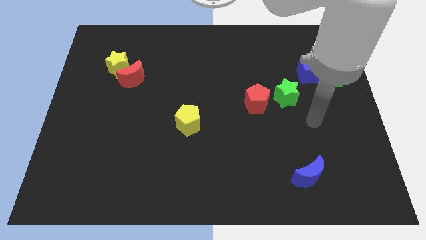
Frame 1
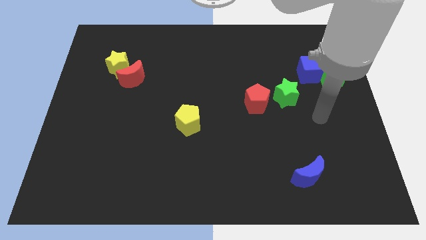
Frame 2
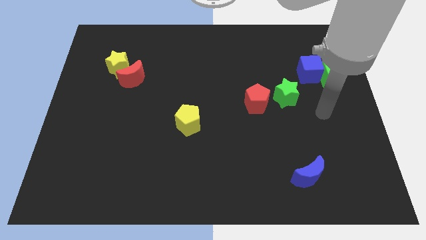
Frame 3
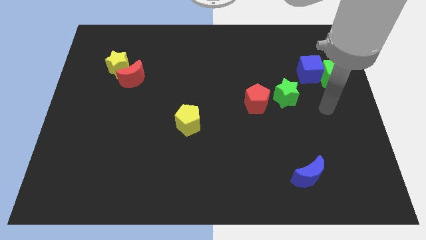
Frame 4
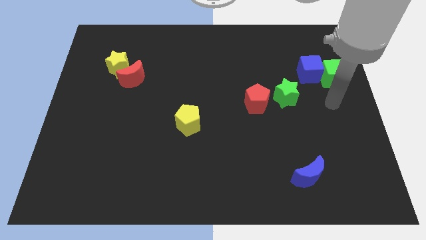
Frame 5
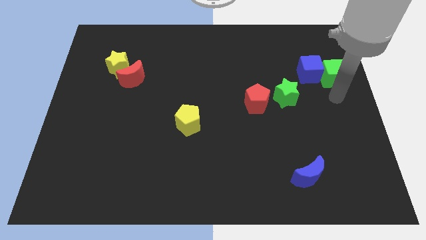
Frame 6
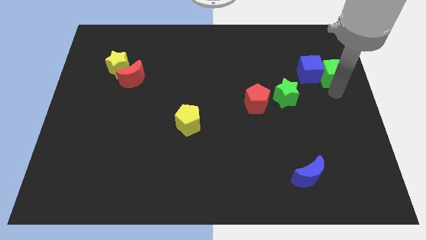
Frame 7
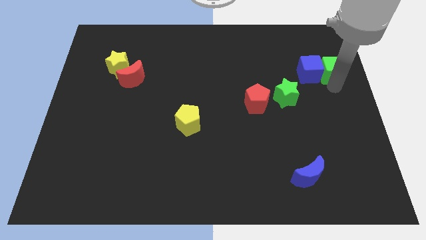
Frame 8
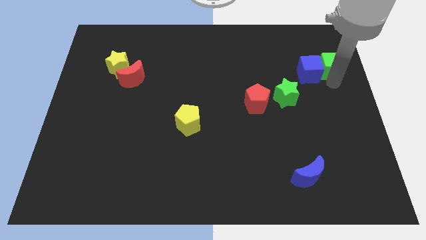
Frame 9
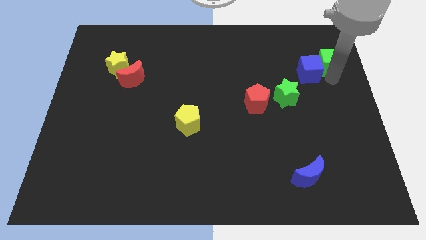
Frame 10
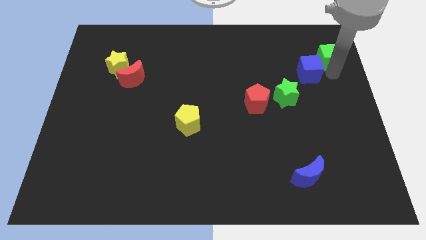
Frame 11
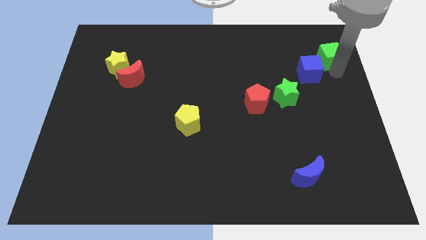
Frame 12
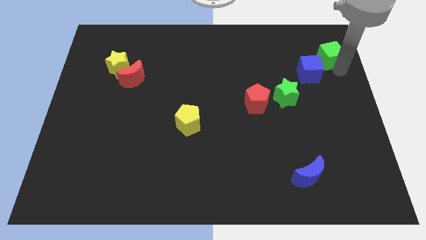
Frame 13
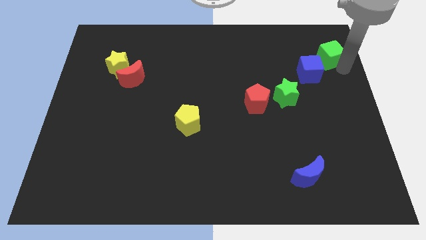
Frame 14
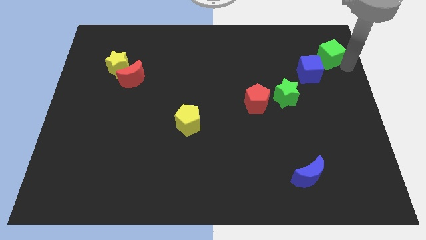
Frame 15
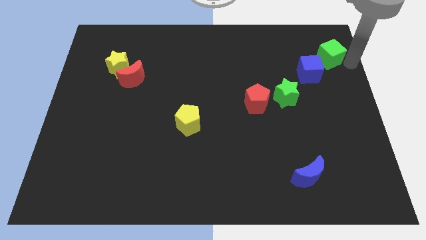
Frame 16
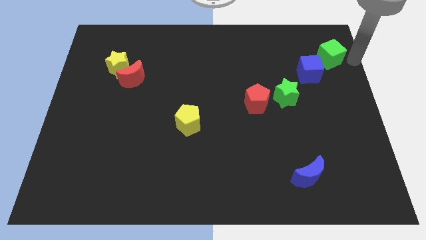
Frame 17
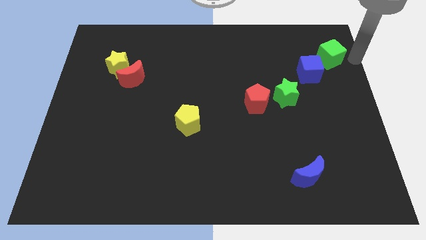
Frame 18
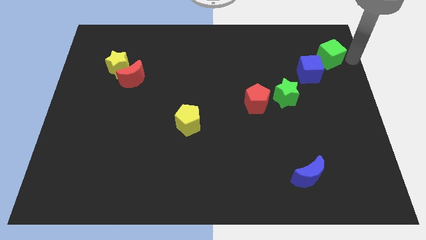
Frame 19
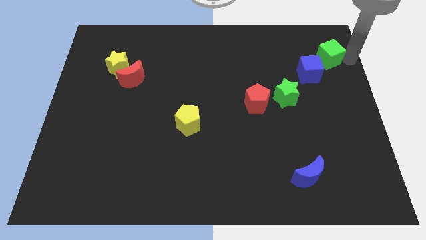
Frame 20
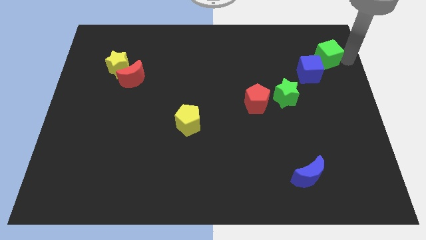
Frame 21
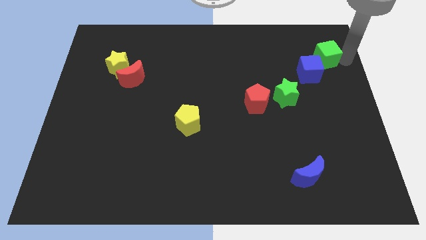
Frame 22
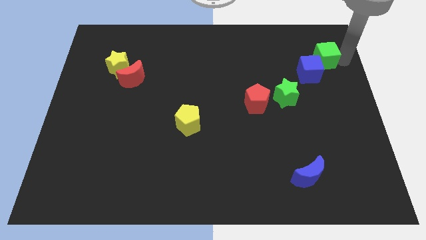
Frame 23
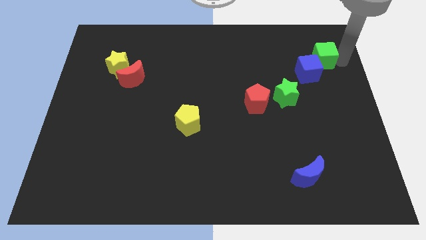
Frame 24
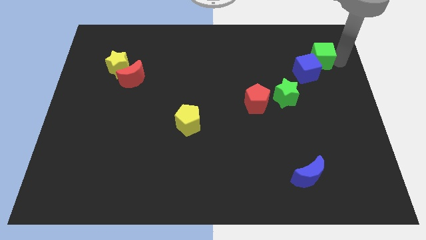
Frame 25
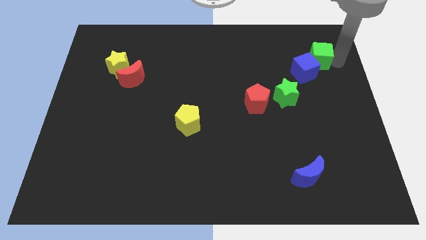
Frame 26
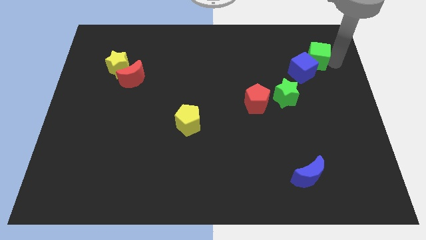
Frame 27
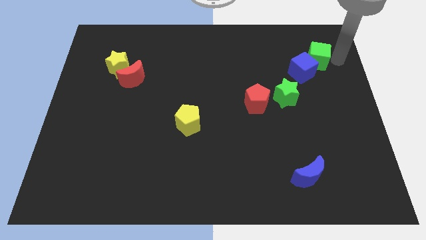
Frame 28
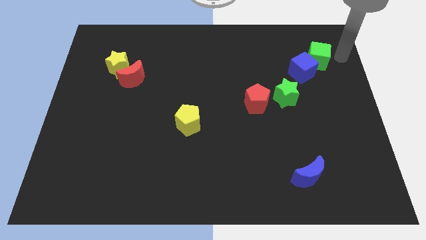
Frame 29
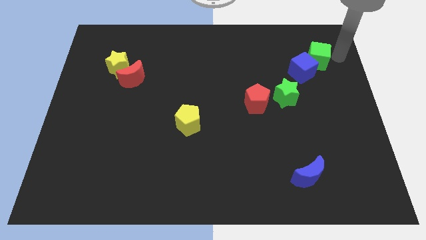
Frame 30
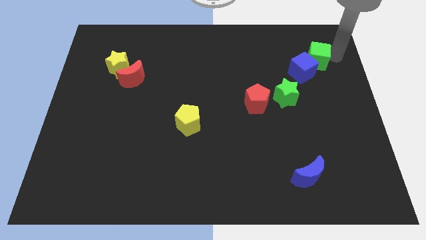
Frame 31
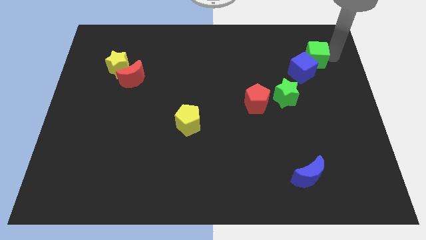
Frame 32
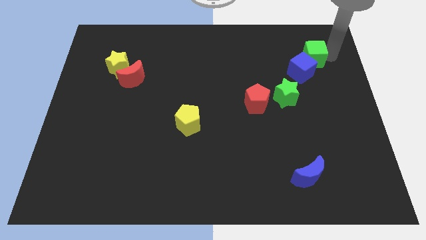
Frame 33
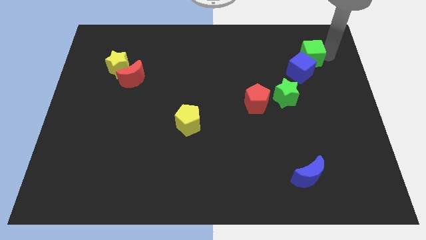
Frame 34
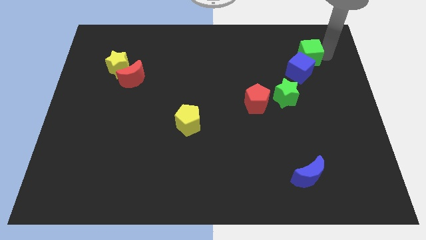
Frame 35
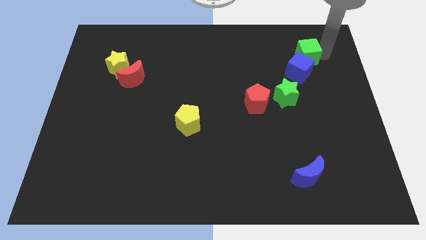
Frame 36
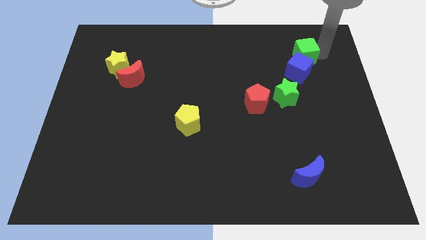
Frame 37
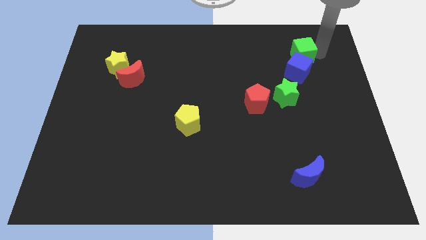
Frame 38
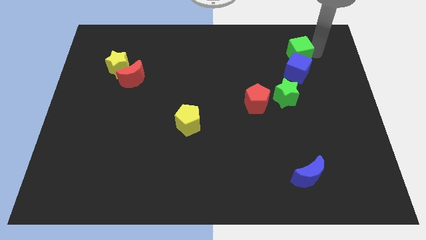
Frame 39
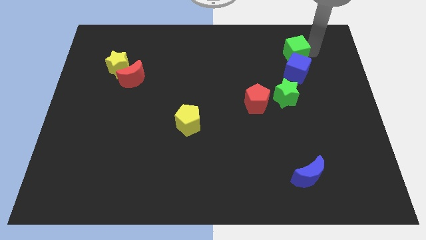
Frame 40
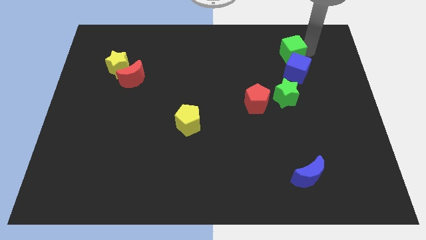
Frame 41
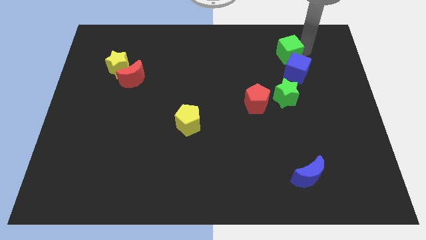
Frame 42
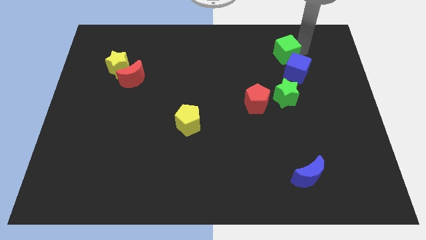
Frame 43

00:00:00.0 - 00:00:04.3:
push the green cube slightly to the left

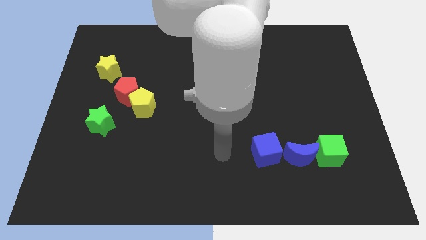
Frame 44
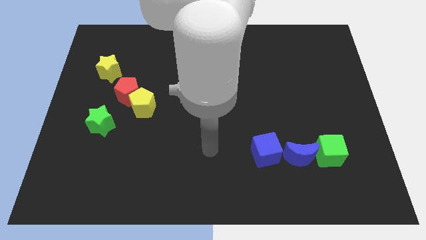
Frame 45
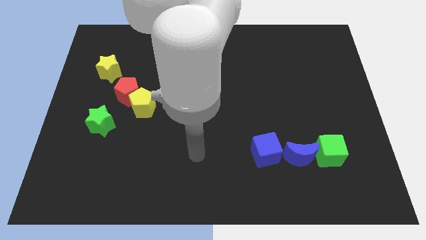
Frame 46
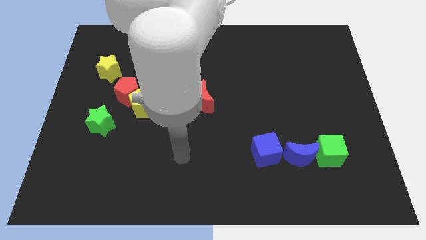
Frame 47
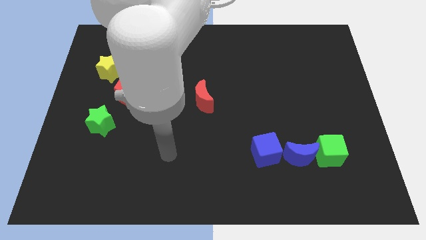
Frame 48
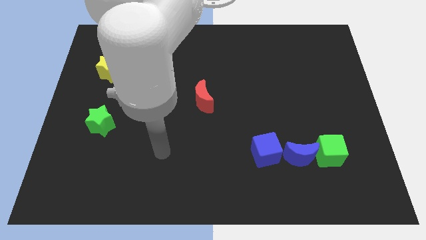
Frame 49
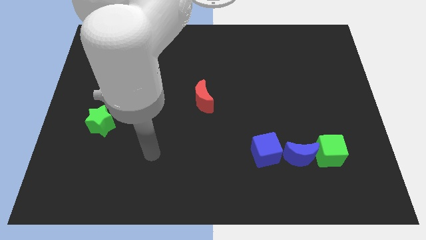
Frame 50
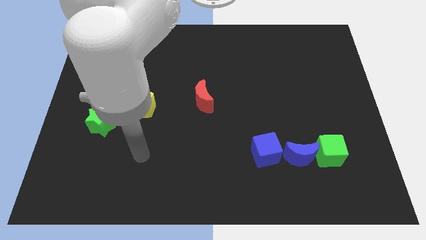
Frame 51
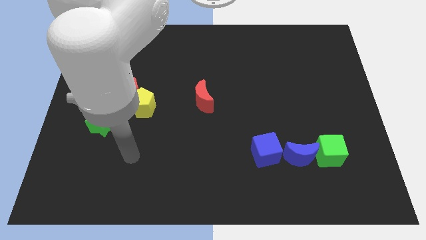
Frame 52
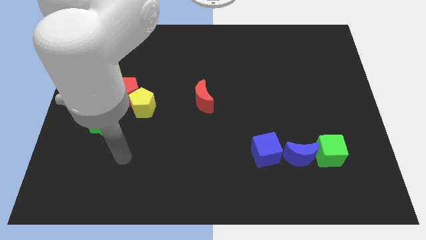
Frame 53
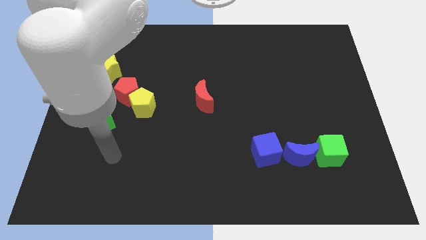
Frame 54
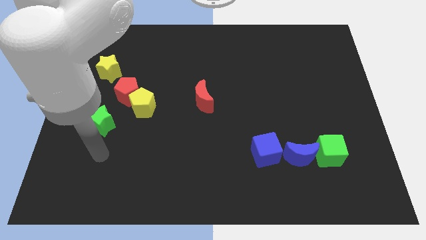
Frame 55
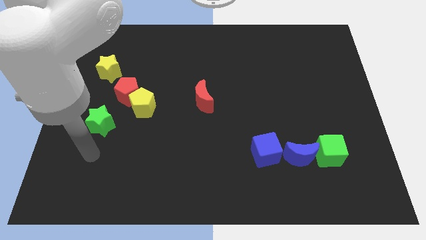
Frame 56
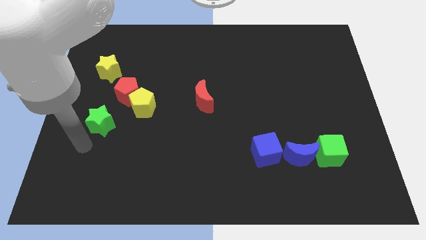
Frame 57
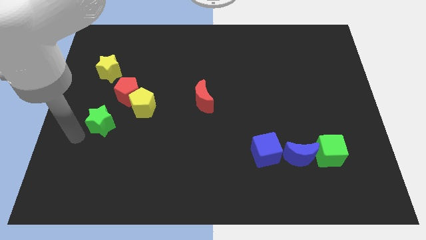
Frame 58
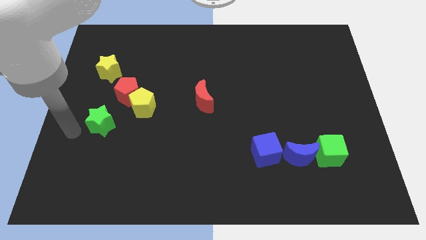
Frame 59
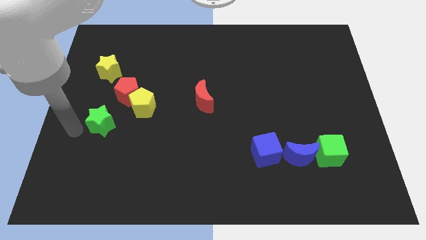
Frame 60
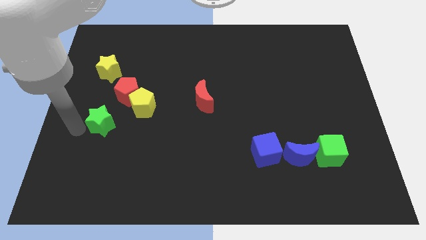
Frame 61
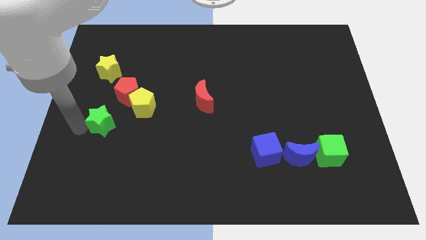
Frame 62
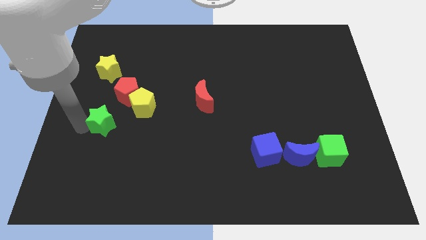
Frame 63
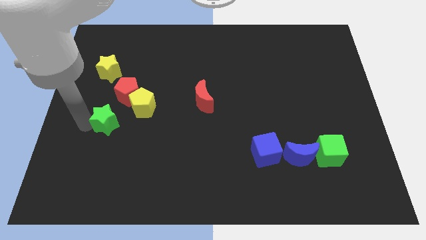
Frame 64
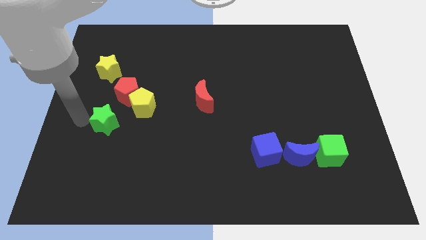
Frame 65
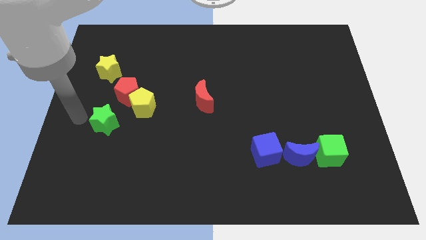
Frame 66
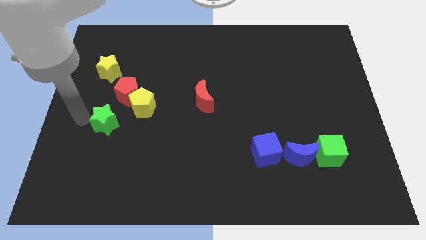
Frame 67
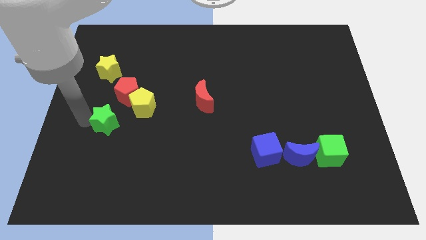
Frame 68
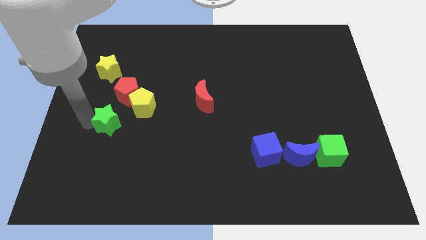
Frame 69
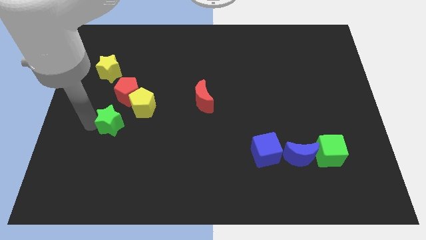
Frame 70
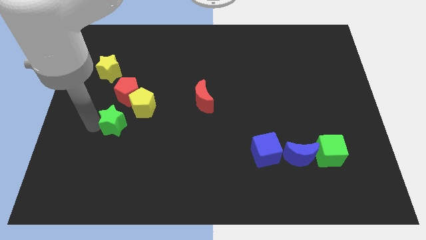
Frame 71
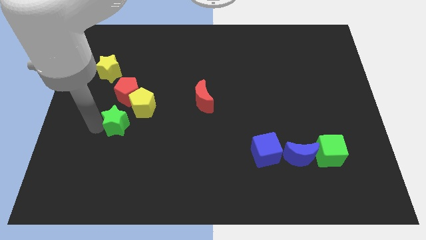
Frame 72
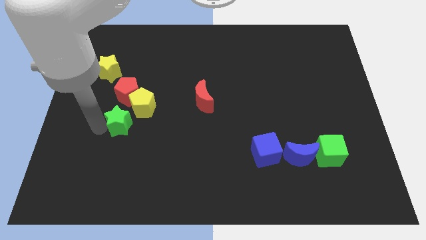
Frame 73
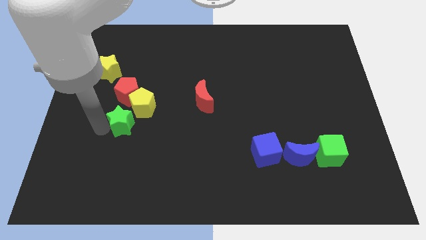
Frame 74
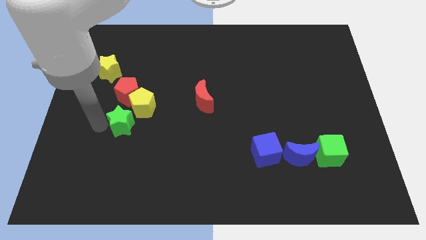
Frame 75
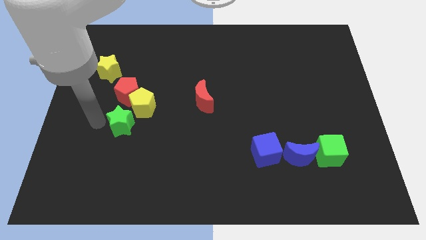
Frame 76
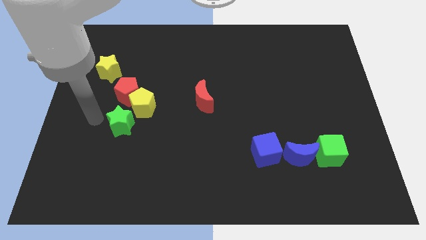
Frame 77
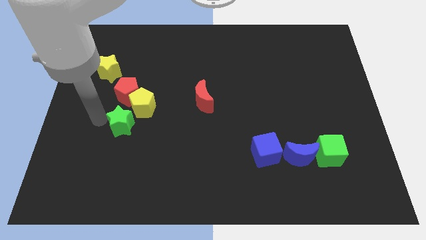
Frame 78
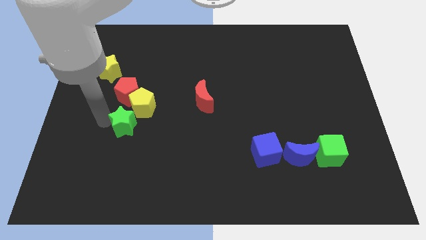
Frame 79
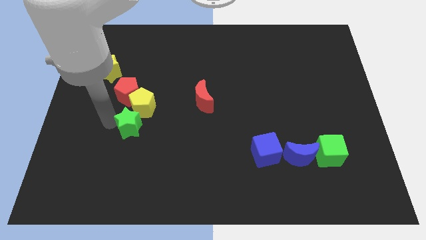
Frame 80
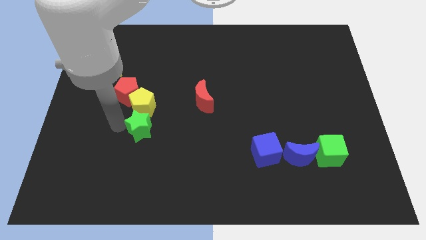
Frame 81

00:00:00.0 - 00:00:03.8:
slide the green star slightly to the right

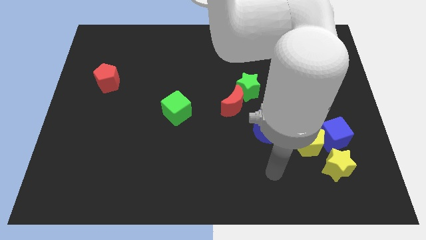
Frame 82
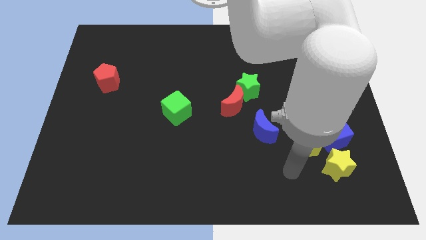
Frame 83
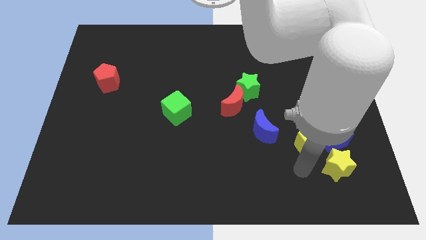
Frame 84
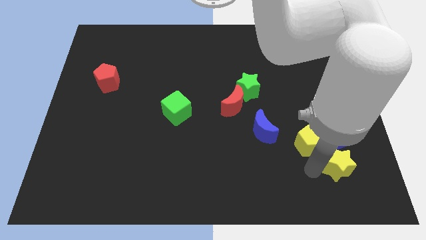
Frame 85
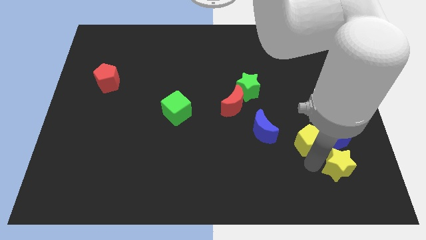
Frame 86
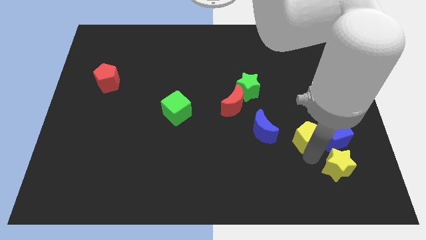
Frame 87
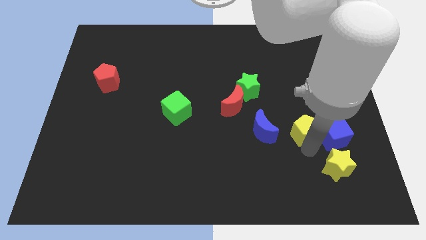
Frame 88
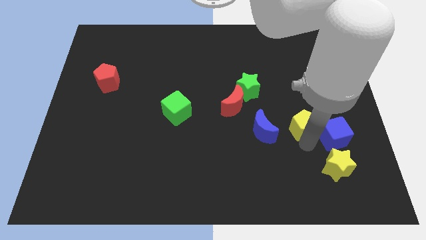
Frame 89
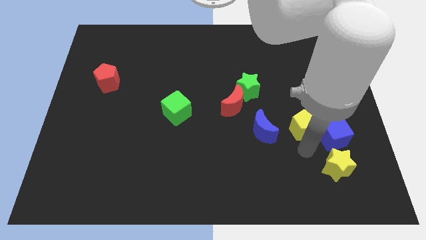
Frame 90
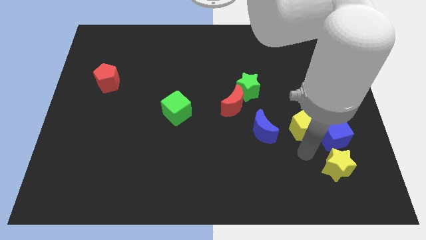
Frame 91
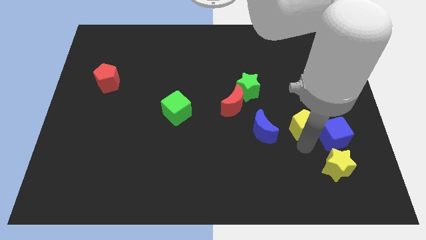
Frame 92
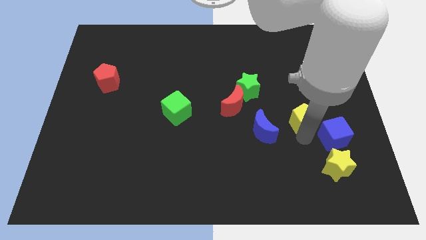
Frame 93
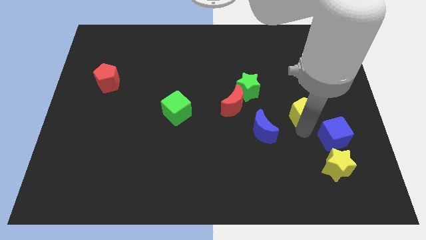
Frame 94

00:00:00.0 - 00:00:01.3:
move the yellow pentagon a little bit up
